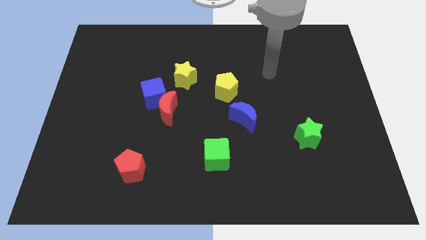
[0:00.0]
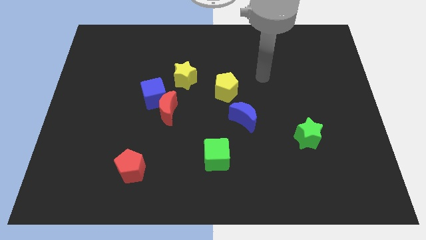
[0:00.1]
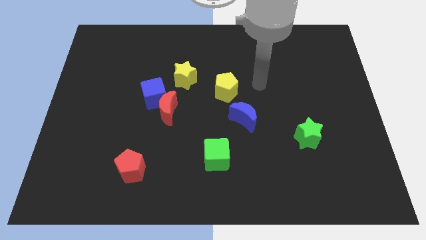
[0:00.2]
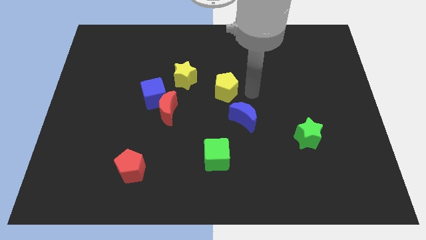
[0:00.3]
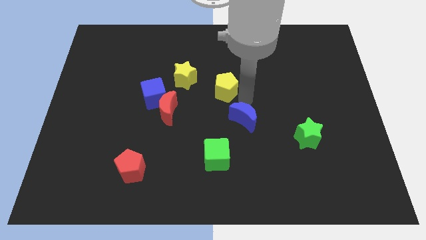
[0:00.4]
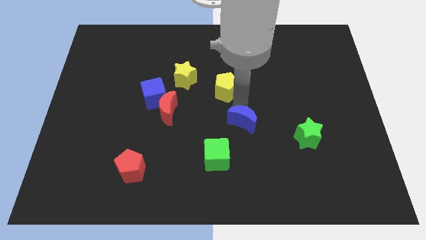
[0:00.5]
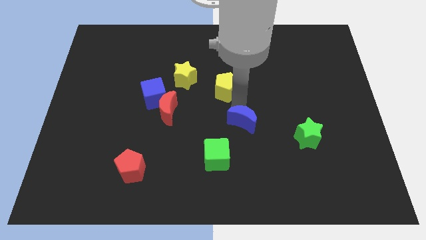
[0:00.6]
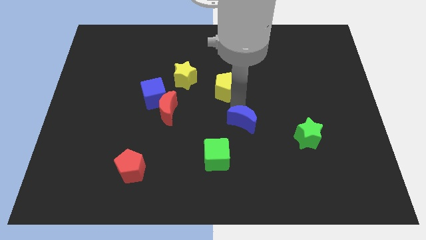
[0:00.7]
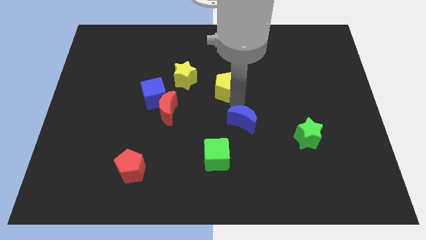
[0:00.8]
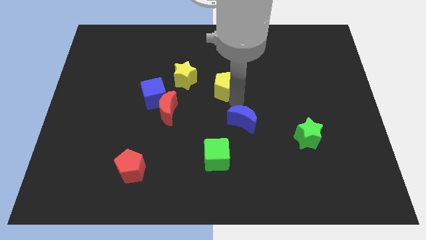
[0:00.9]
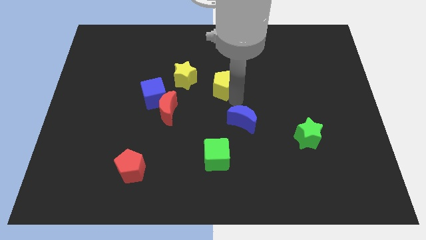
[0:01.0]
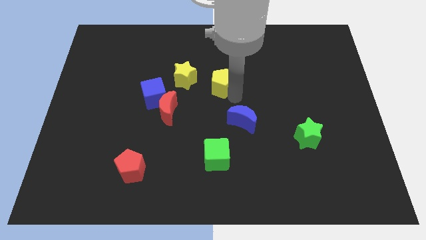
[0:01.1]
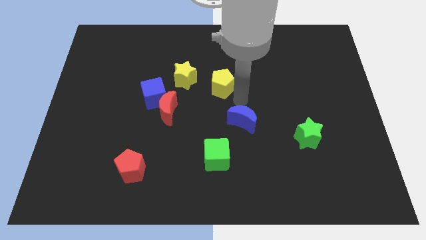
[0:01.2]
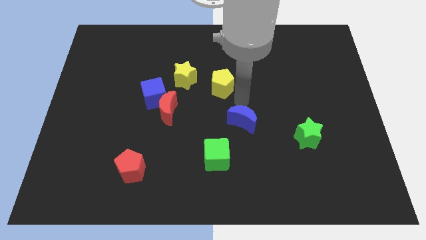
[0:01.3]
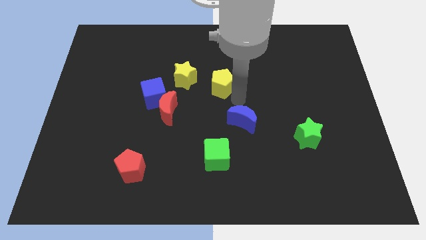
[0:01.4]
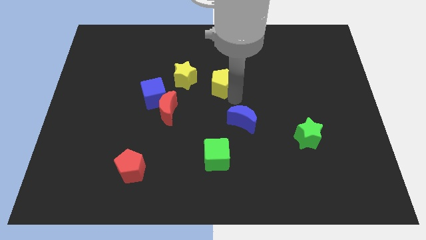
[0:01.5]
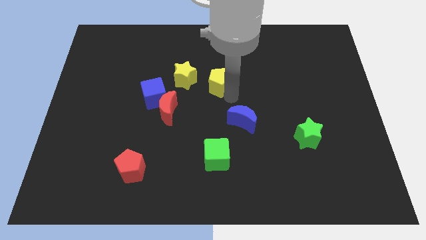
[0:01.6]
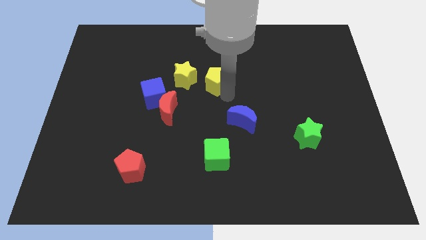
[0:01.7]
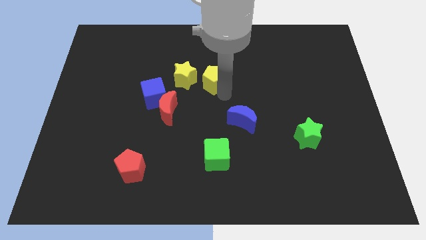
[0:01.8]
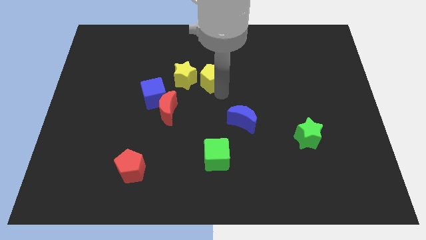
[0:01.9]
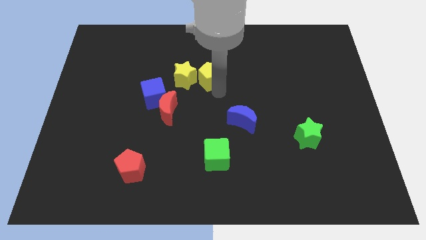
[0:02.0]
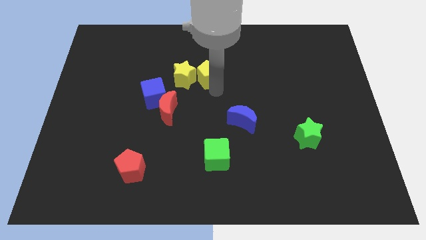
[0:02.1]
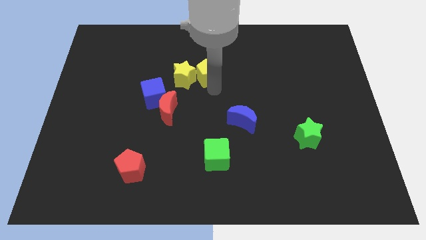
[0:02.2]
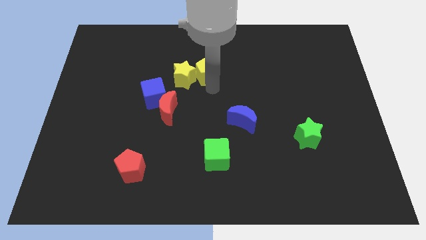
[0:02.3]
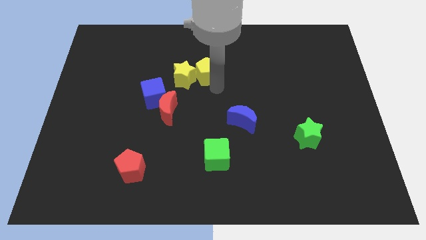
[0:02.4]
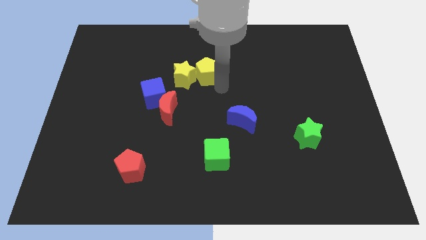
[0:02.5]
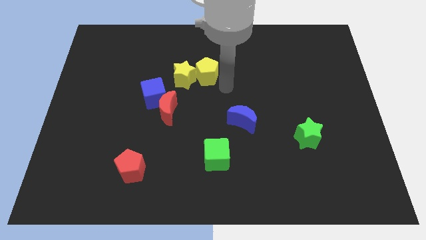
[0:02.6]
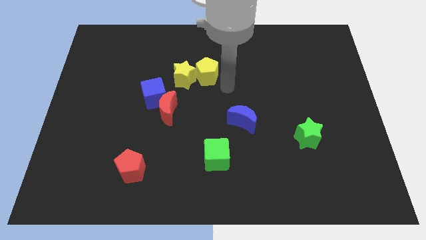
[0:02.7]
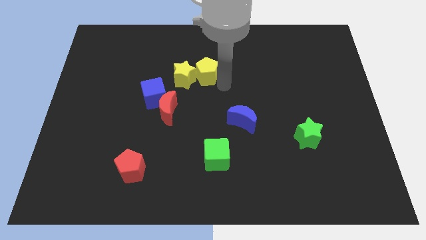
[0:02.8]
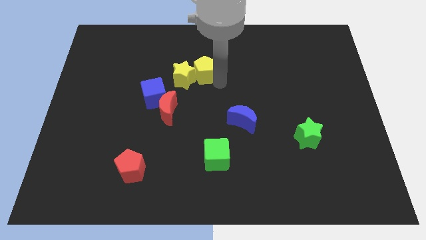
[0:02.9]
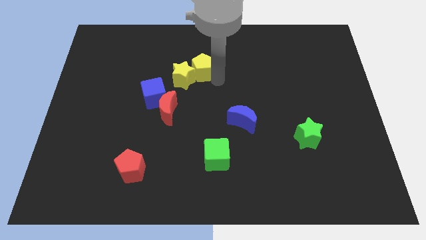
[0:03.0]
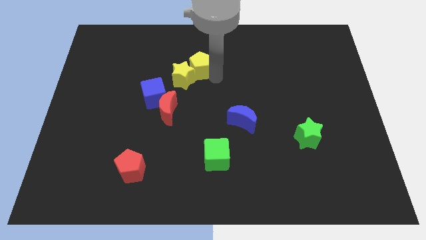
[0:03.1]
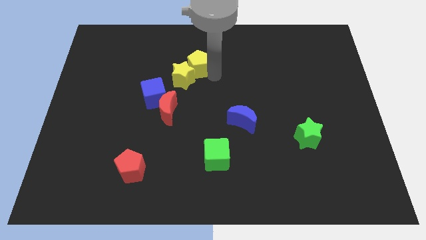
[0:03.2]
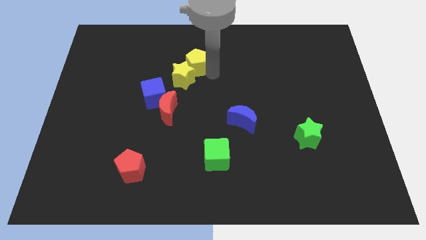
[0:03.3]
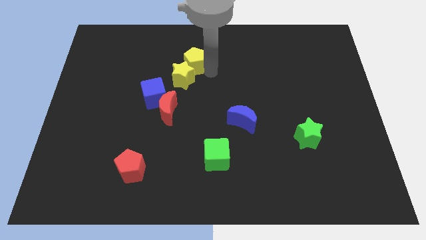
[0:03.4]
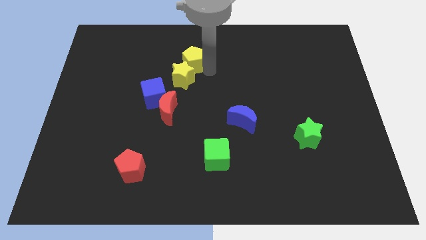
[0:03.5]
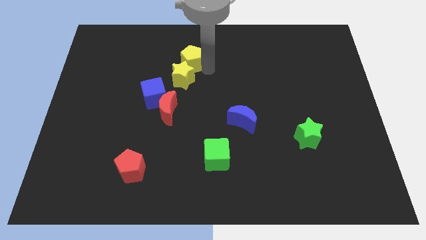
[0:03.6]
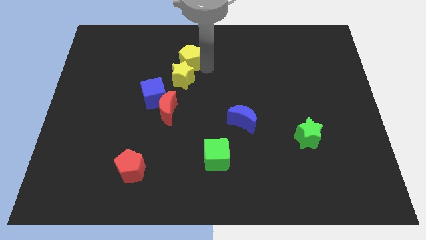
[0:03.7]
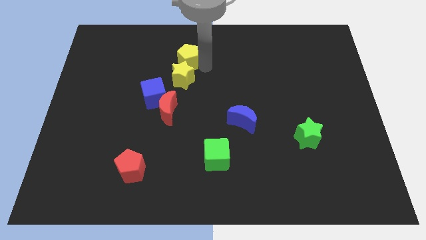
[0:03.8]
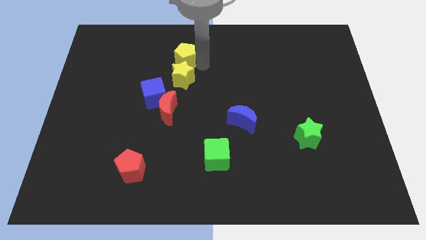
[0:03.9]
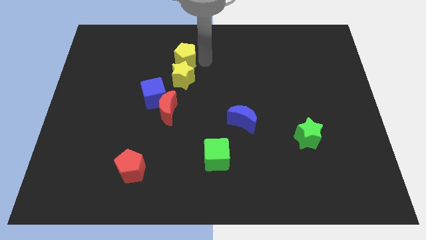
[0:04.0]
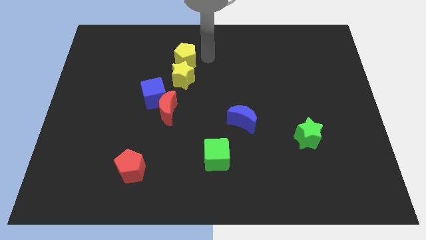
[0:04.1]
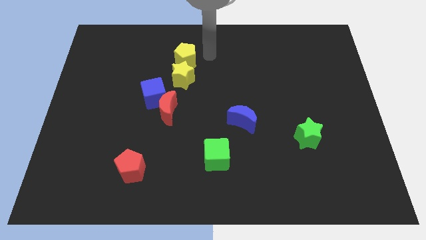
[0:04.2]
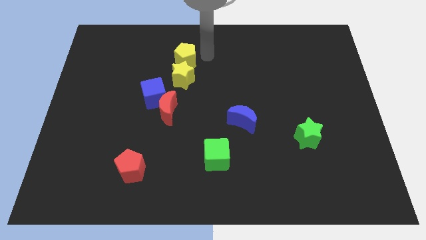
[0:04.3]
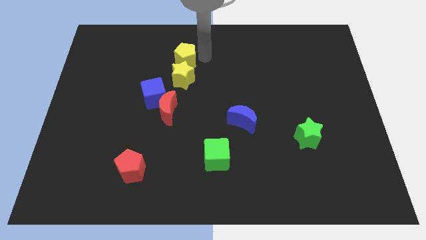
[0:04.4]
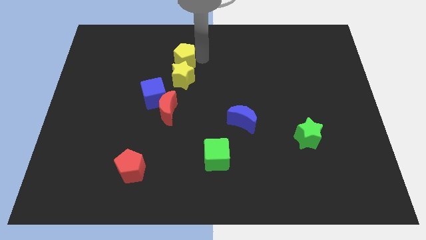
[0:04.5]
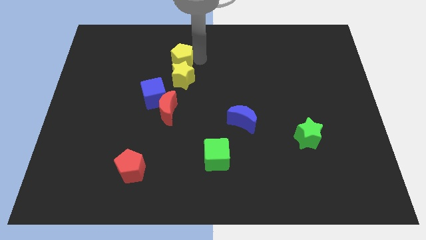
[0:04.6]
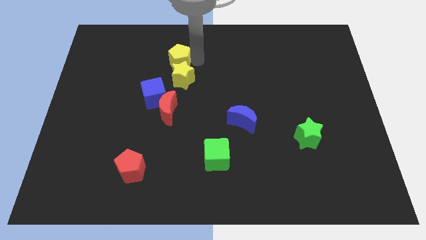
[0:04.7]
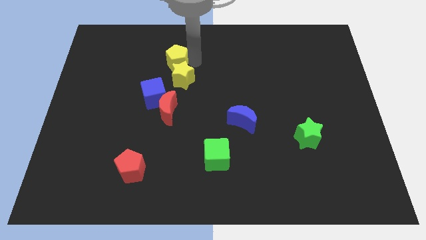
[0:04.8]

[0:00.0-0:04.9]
put the yellow pentagon to the top side of the blue cube

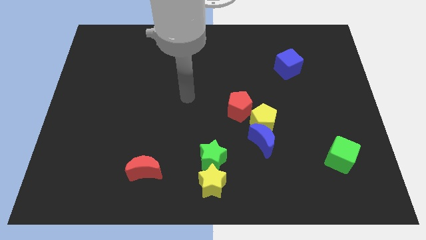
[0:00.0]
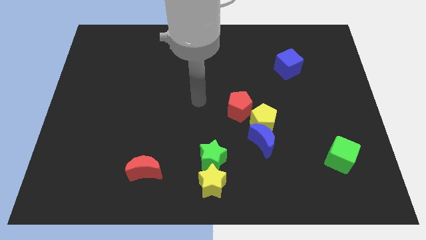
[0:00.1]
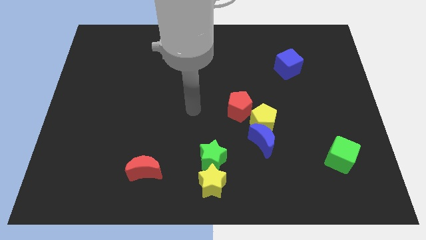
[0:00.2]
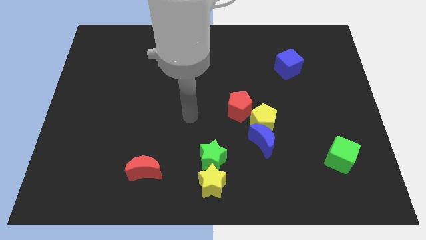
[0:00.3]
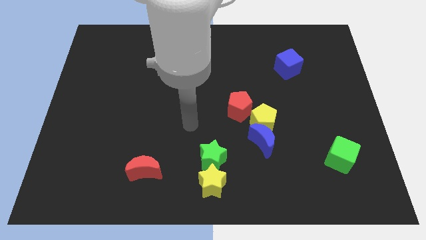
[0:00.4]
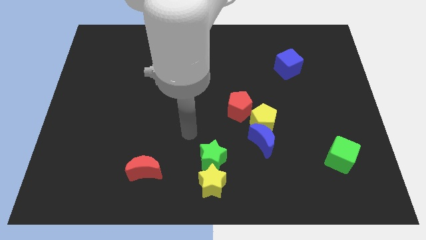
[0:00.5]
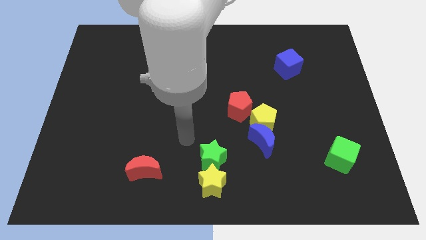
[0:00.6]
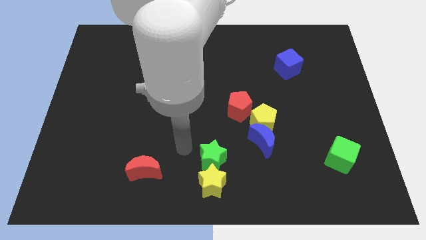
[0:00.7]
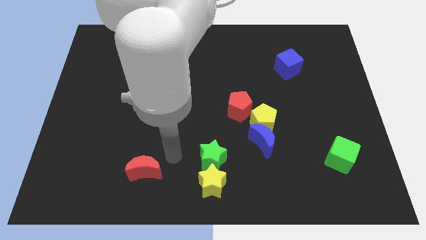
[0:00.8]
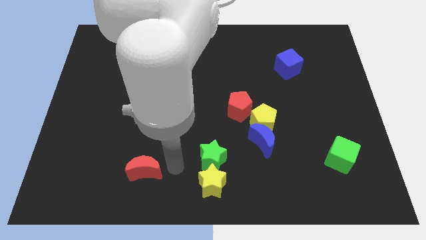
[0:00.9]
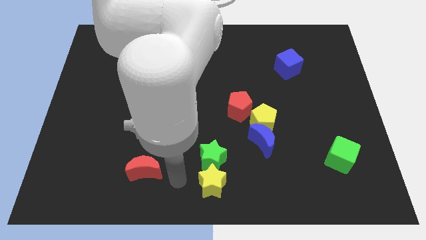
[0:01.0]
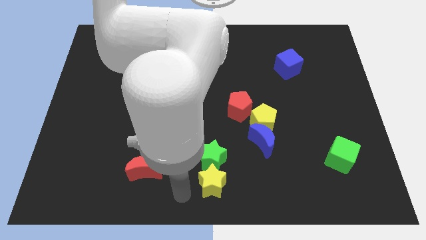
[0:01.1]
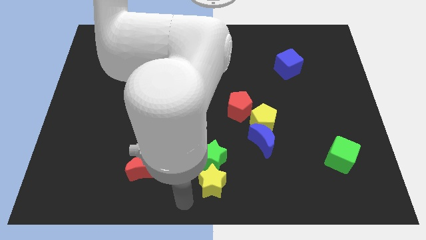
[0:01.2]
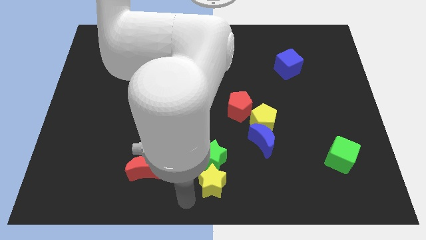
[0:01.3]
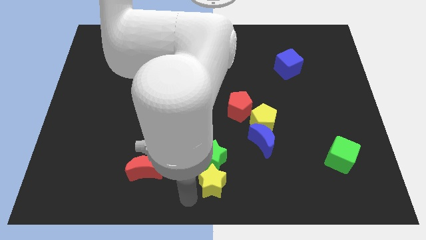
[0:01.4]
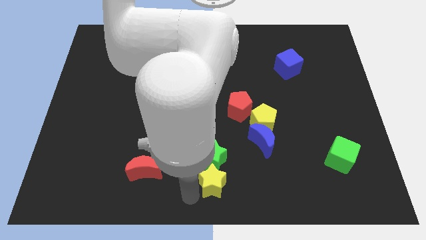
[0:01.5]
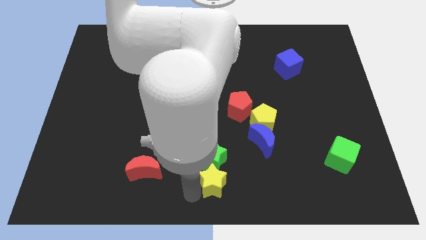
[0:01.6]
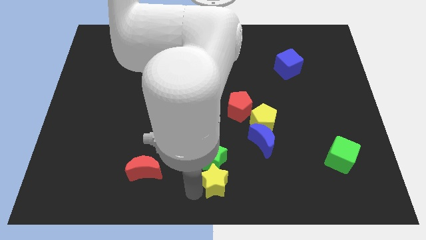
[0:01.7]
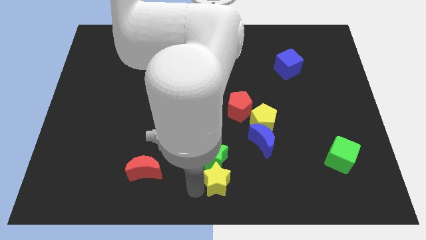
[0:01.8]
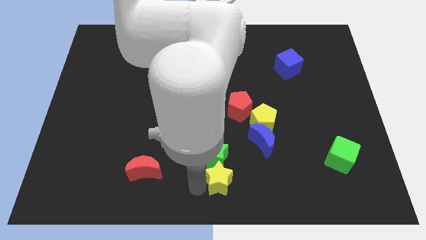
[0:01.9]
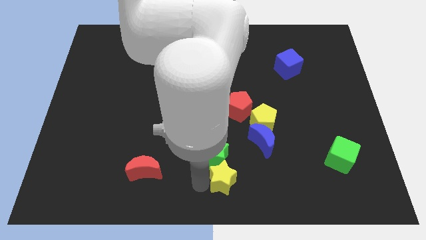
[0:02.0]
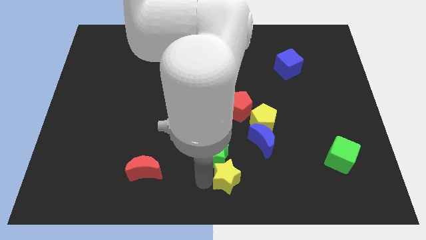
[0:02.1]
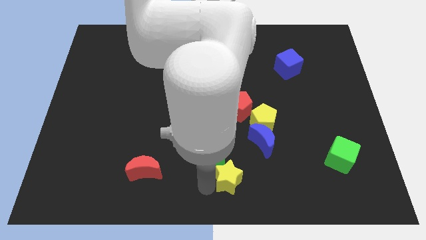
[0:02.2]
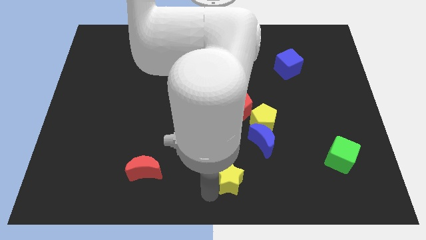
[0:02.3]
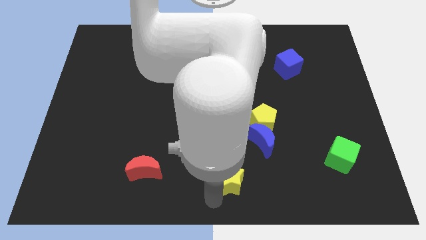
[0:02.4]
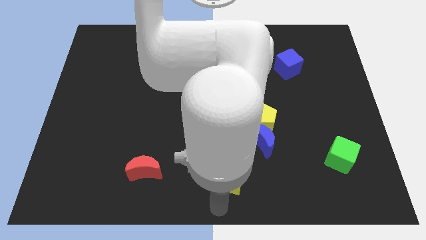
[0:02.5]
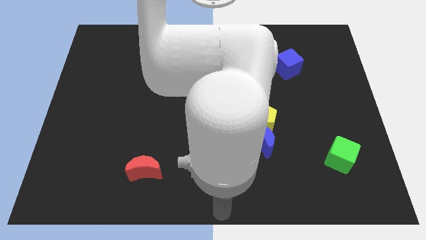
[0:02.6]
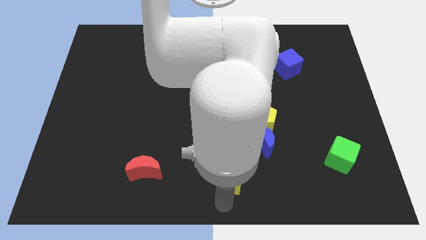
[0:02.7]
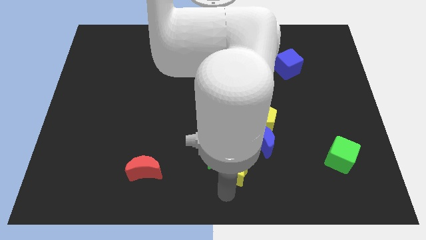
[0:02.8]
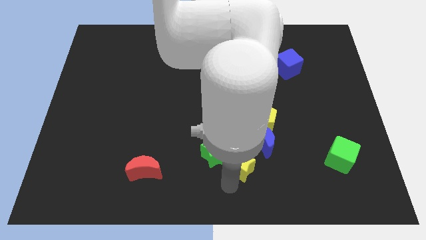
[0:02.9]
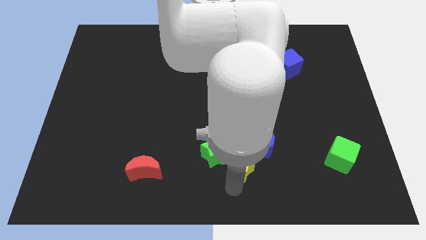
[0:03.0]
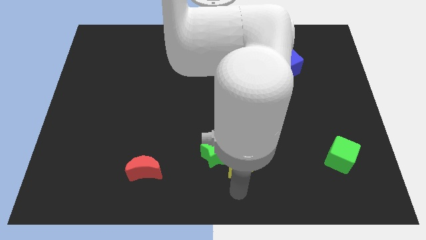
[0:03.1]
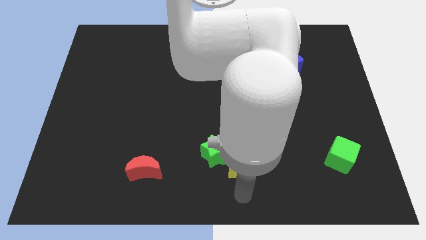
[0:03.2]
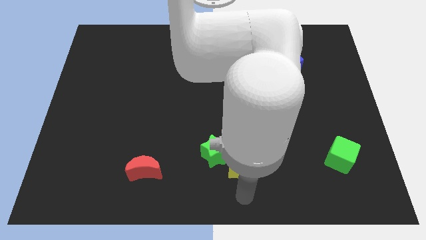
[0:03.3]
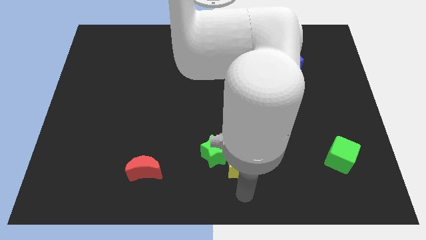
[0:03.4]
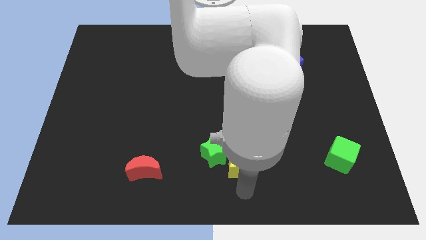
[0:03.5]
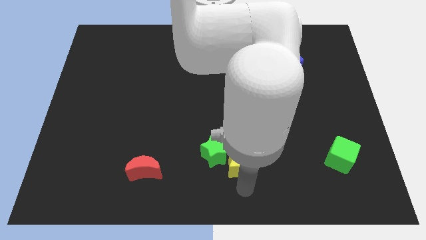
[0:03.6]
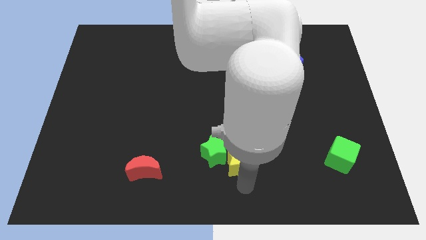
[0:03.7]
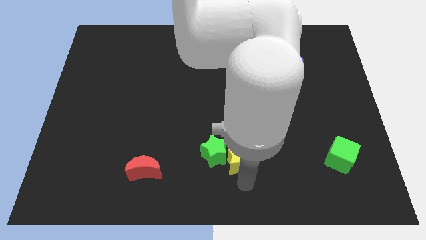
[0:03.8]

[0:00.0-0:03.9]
push the yellow star left of the blue moon
